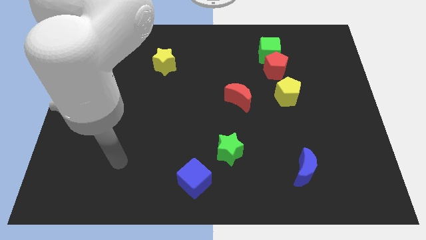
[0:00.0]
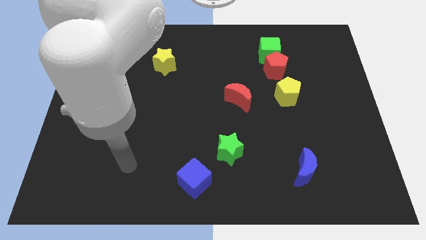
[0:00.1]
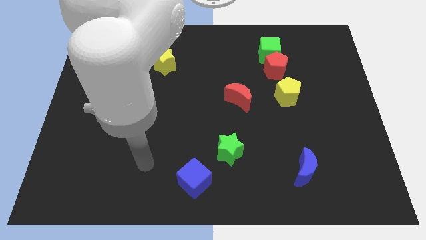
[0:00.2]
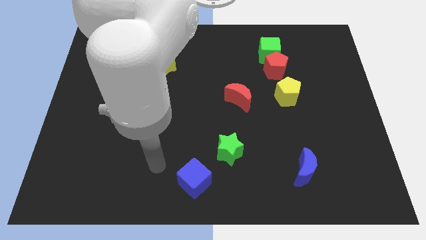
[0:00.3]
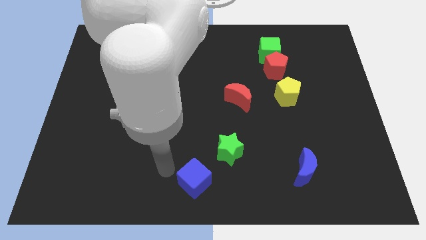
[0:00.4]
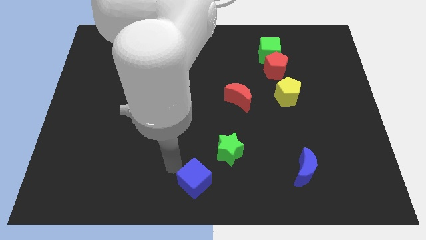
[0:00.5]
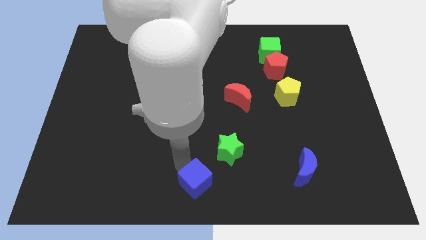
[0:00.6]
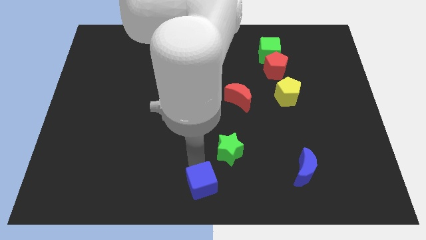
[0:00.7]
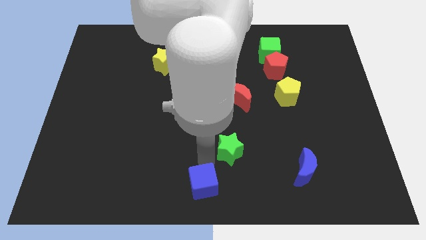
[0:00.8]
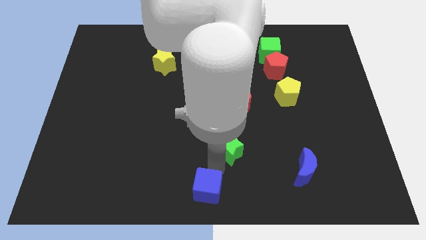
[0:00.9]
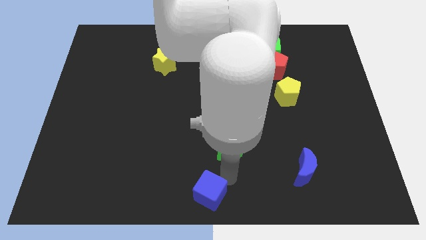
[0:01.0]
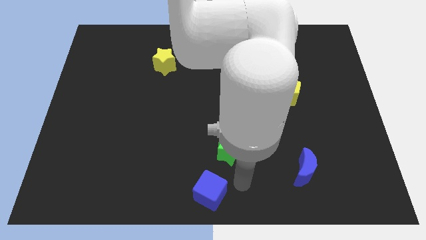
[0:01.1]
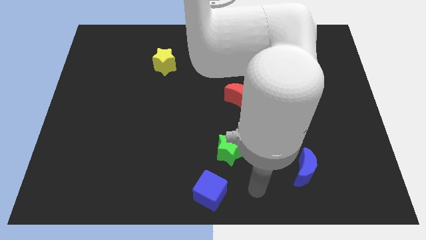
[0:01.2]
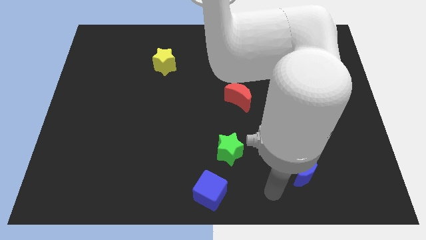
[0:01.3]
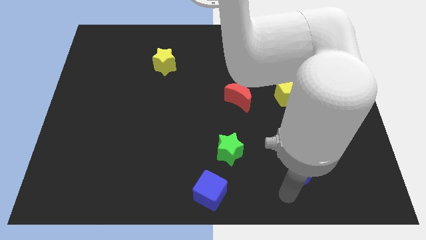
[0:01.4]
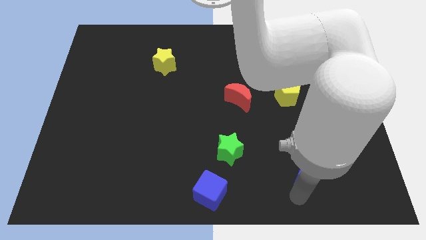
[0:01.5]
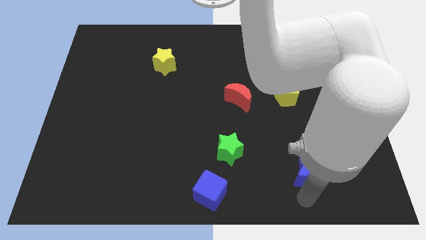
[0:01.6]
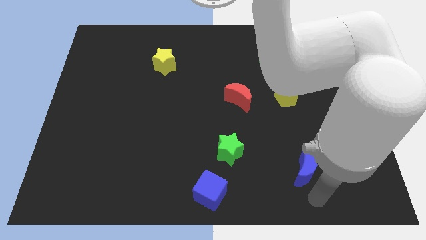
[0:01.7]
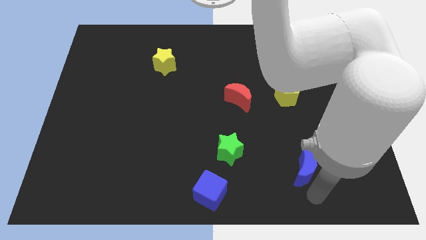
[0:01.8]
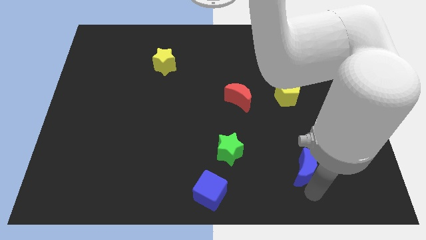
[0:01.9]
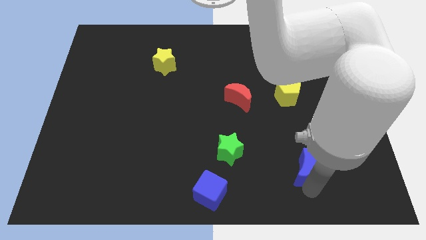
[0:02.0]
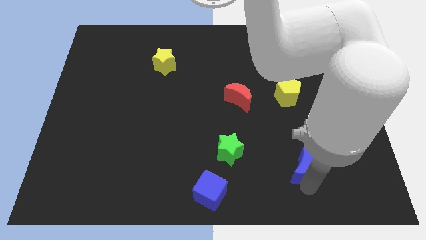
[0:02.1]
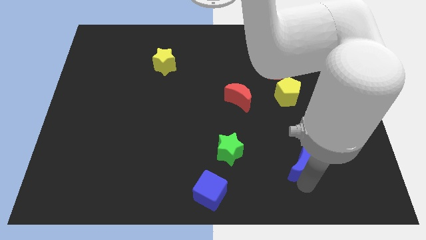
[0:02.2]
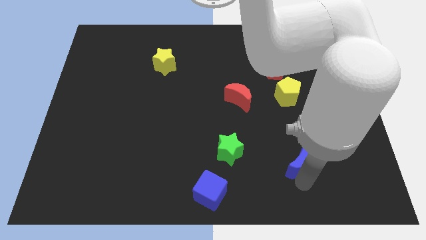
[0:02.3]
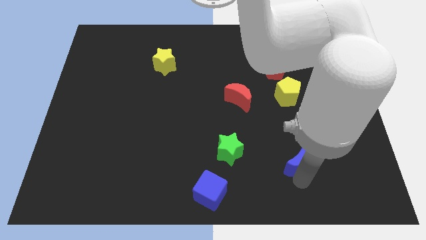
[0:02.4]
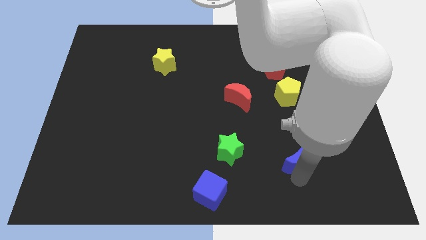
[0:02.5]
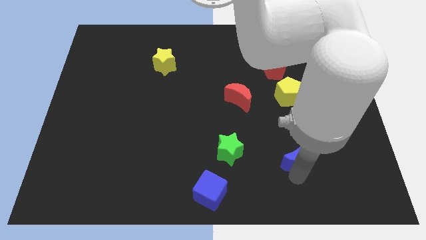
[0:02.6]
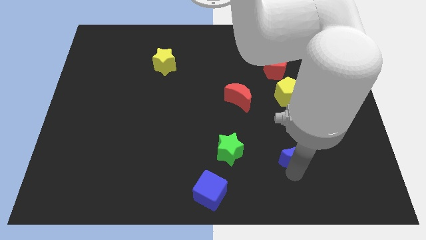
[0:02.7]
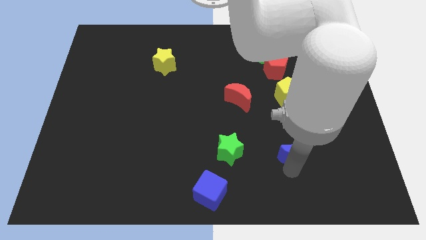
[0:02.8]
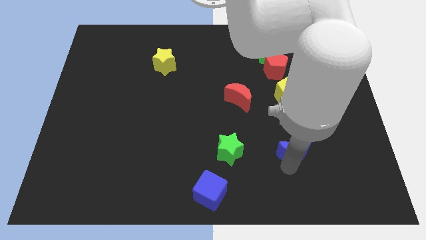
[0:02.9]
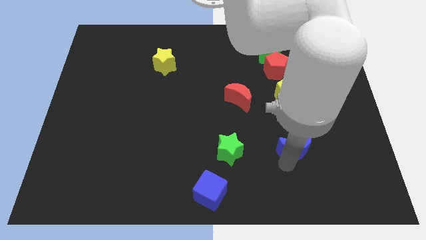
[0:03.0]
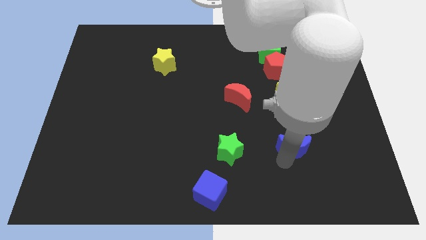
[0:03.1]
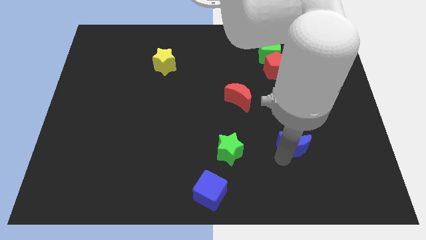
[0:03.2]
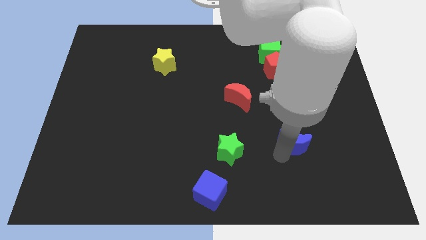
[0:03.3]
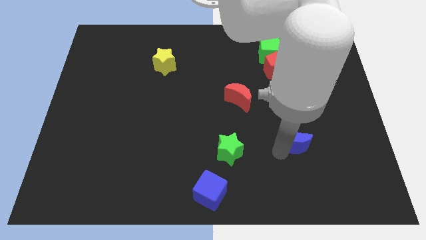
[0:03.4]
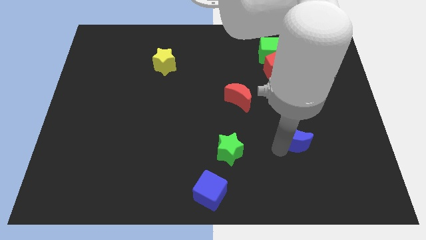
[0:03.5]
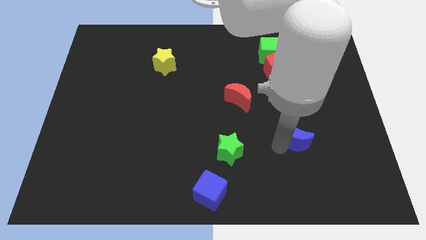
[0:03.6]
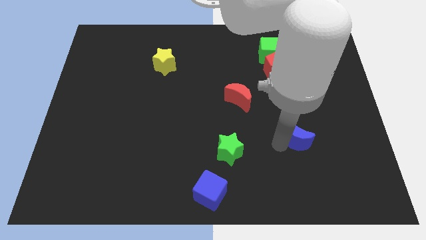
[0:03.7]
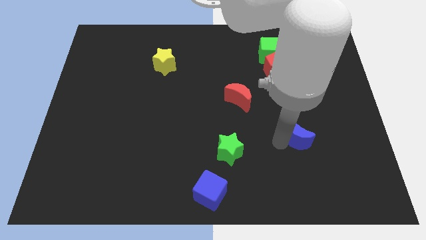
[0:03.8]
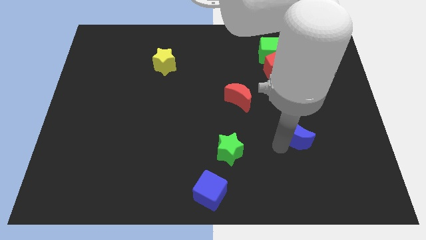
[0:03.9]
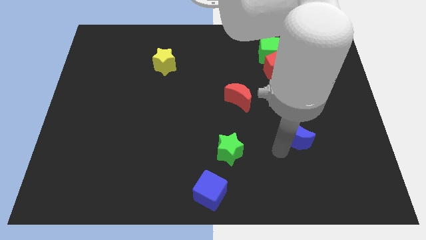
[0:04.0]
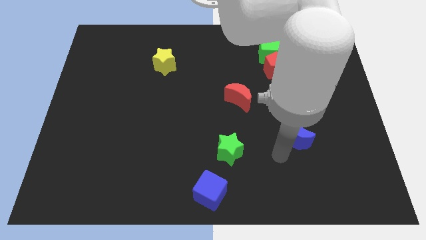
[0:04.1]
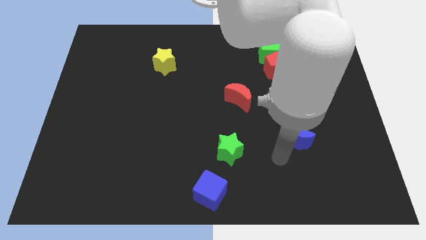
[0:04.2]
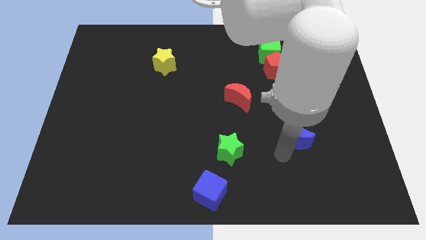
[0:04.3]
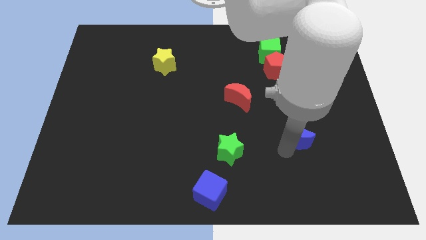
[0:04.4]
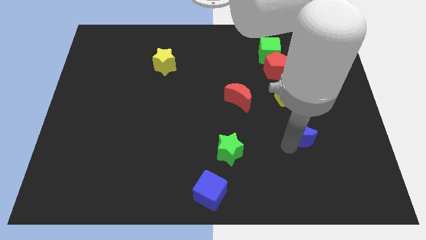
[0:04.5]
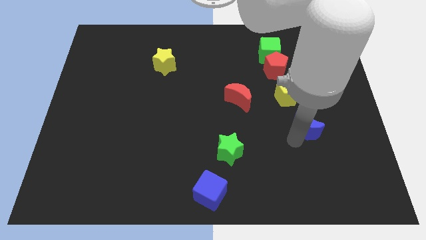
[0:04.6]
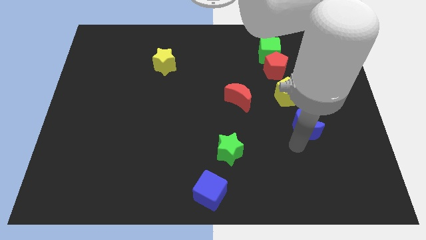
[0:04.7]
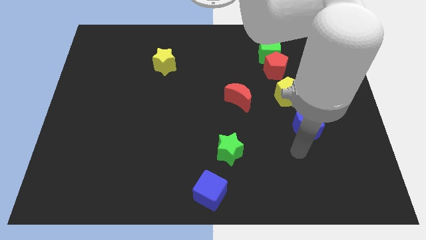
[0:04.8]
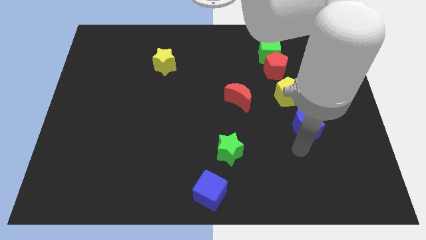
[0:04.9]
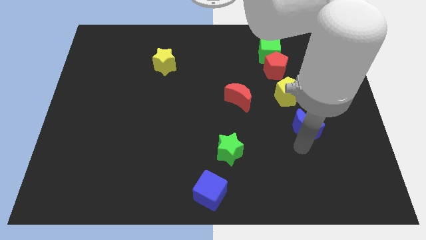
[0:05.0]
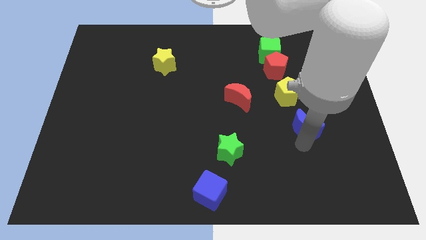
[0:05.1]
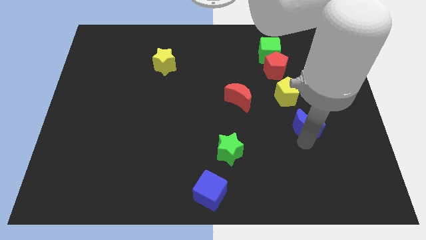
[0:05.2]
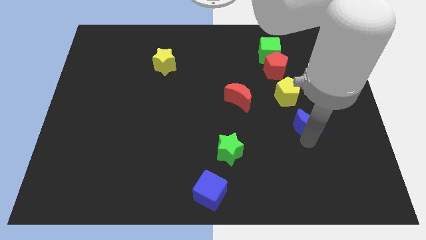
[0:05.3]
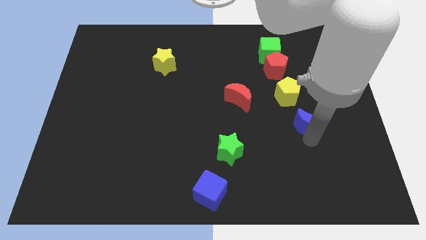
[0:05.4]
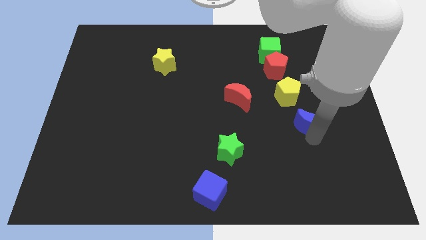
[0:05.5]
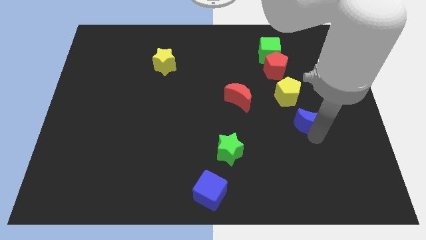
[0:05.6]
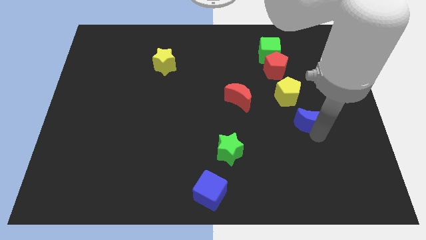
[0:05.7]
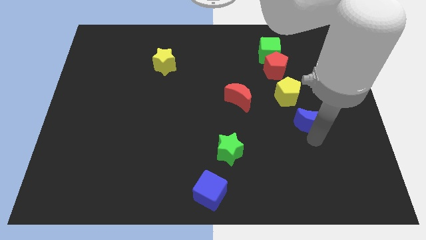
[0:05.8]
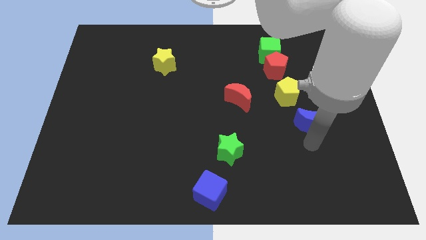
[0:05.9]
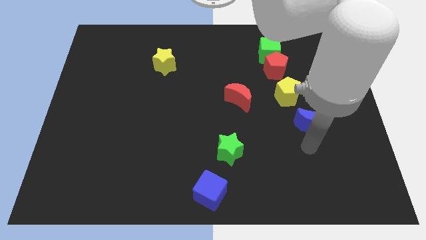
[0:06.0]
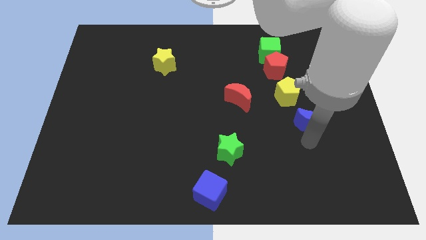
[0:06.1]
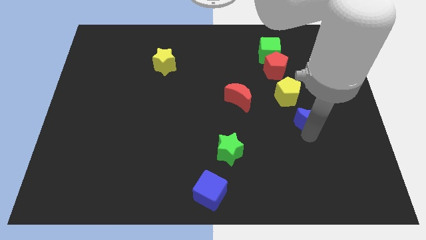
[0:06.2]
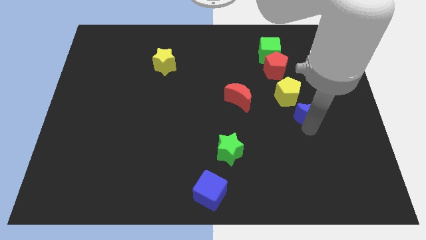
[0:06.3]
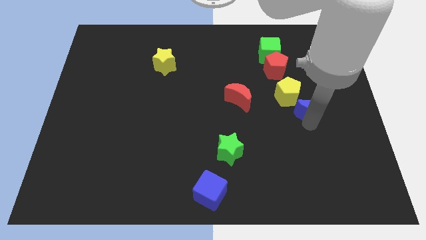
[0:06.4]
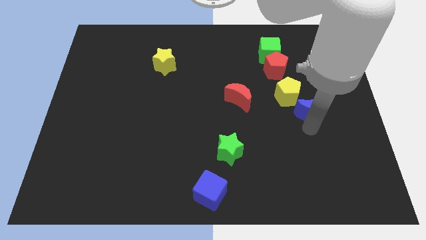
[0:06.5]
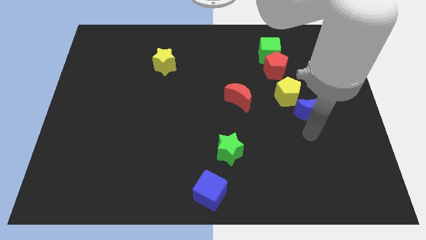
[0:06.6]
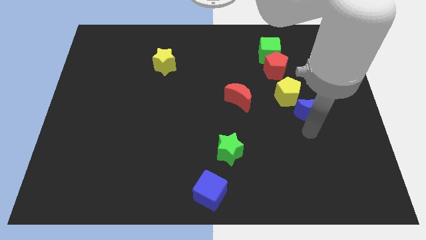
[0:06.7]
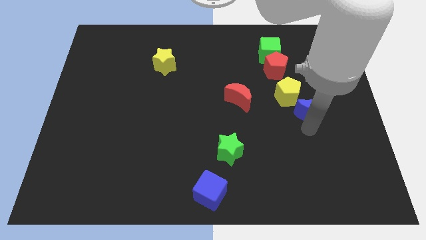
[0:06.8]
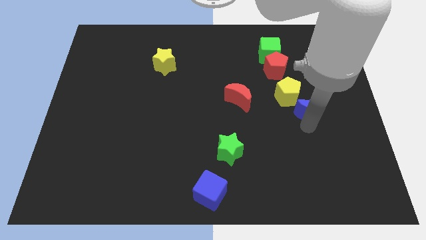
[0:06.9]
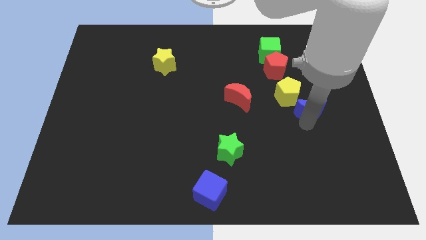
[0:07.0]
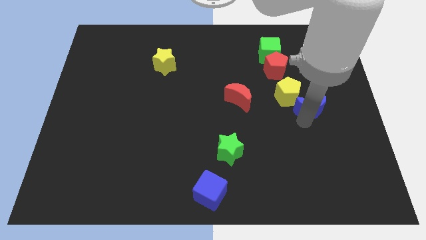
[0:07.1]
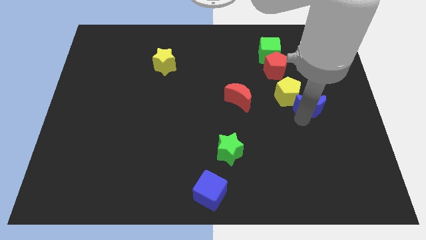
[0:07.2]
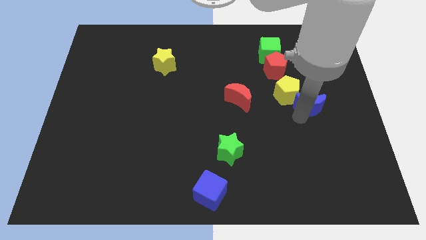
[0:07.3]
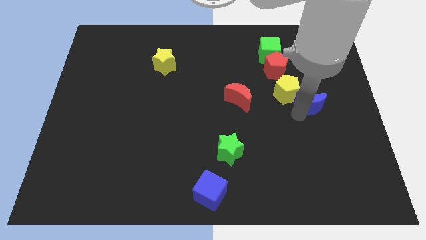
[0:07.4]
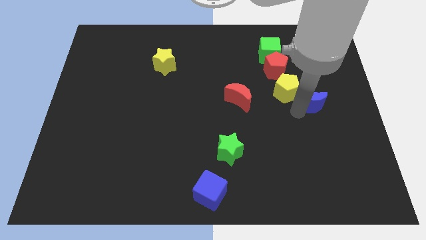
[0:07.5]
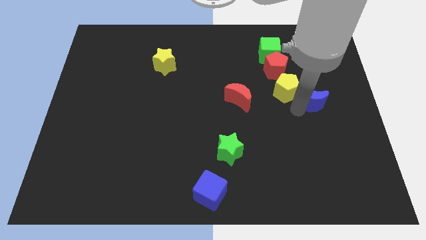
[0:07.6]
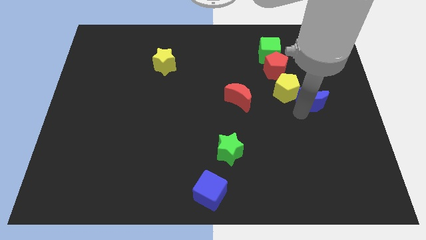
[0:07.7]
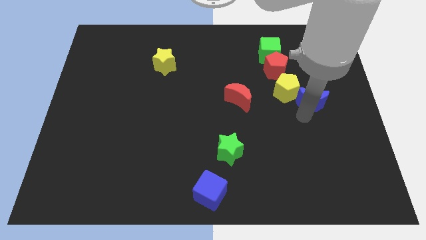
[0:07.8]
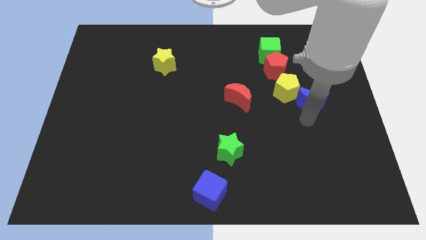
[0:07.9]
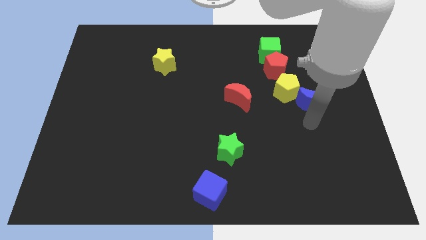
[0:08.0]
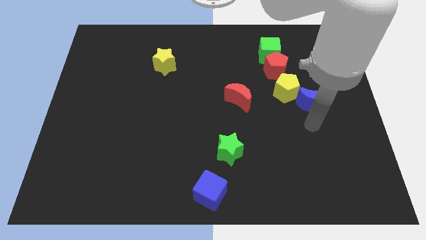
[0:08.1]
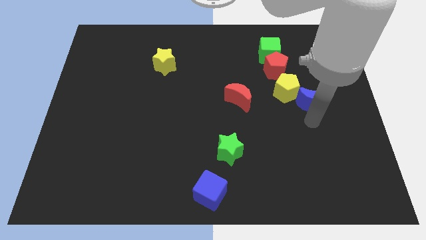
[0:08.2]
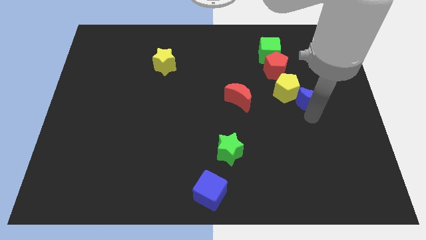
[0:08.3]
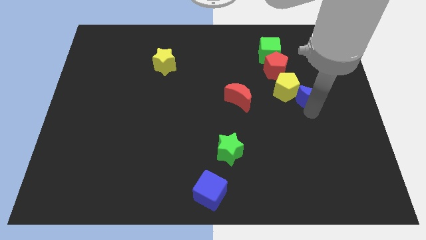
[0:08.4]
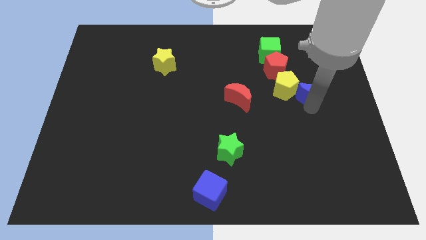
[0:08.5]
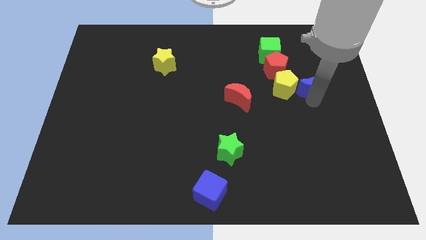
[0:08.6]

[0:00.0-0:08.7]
push the blue moon upwards
